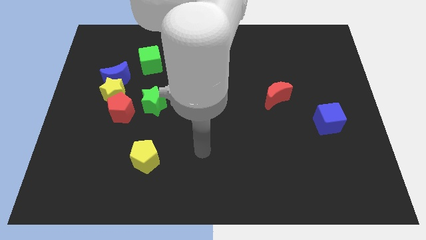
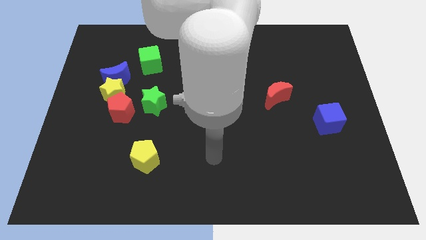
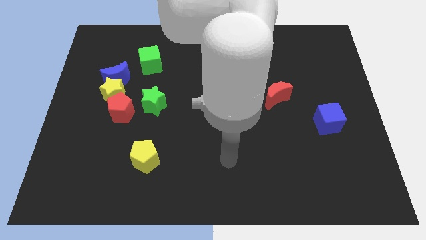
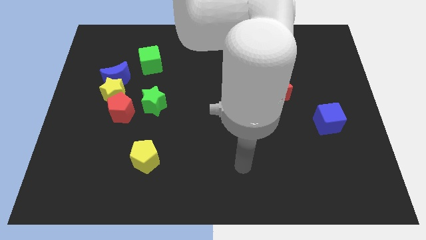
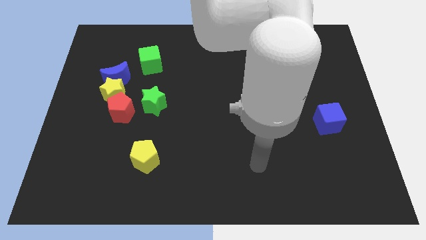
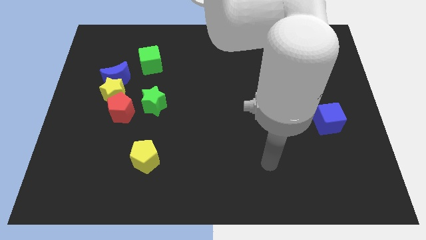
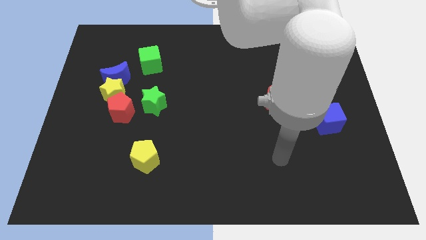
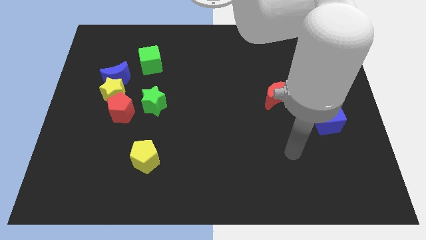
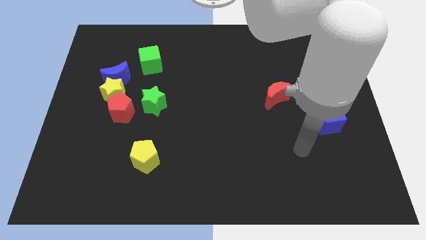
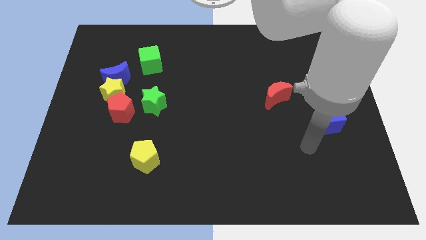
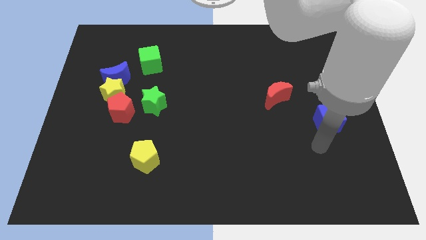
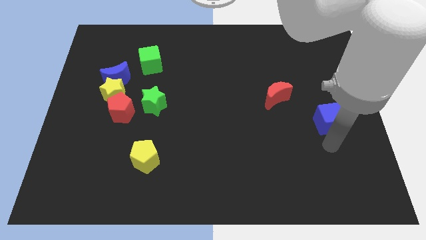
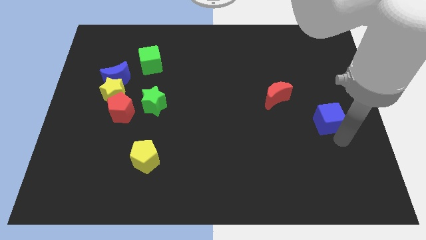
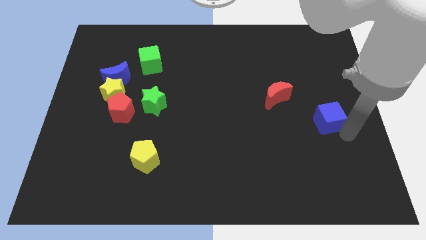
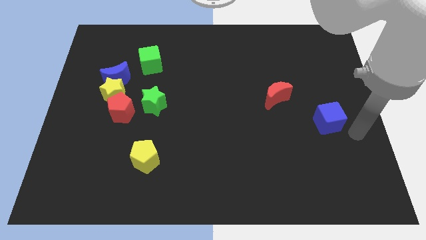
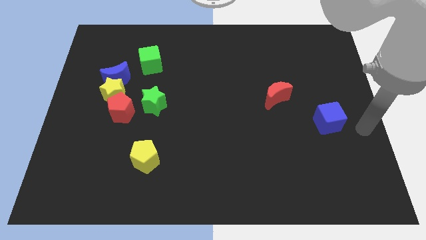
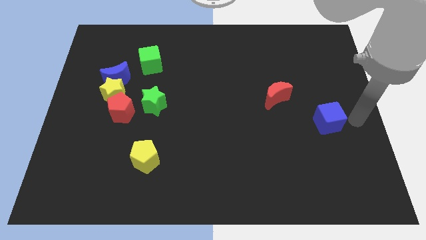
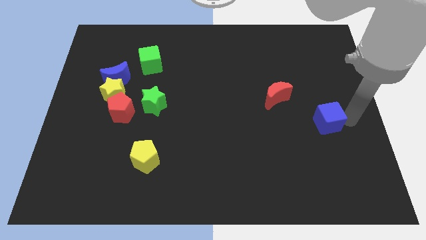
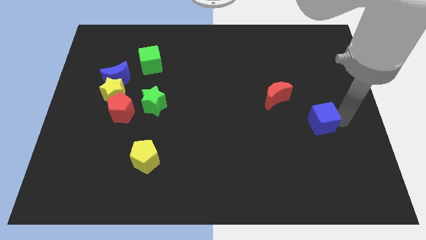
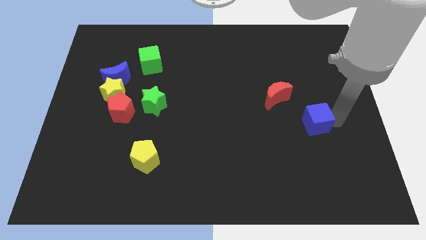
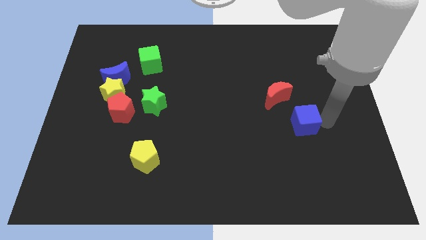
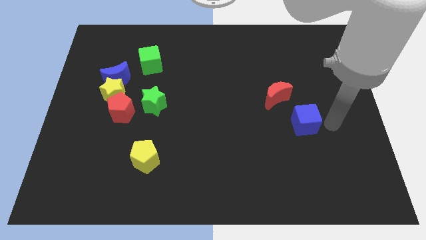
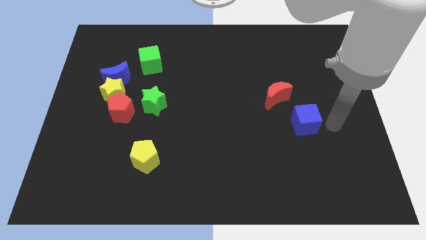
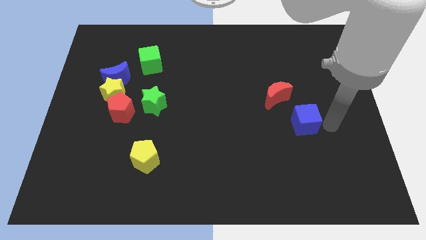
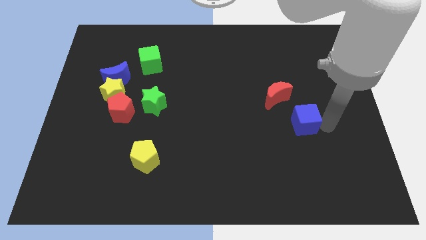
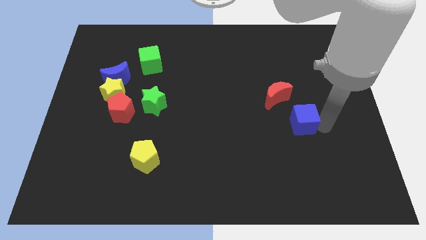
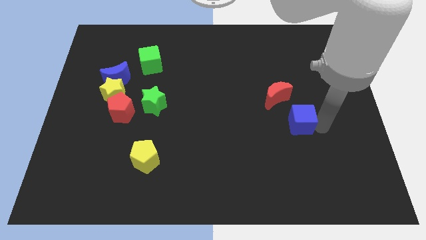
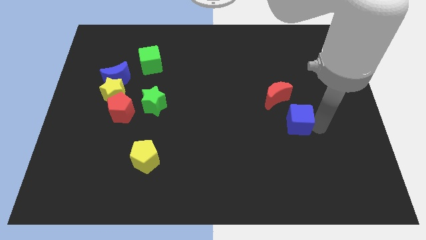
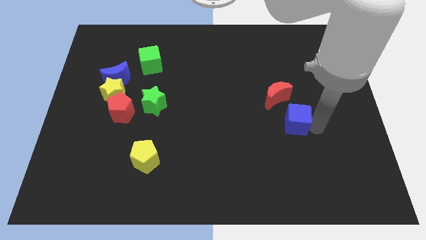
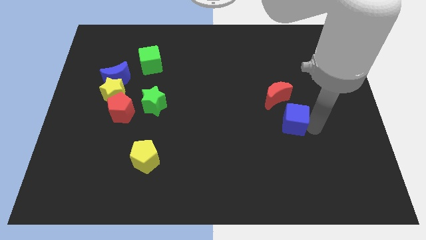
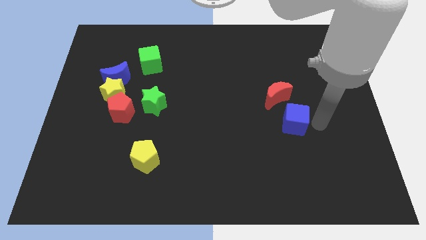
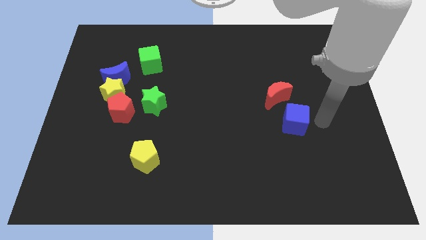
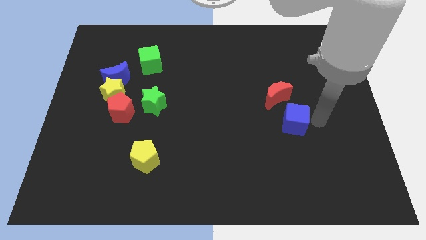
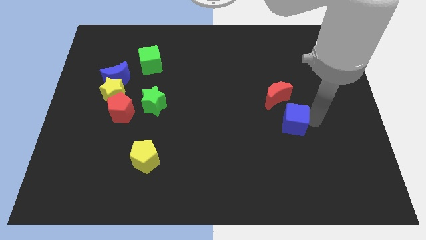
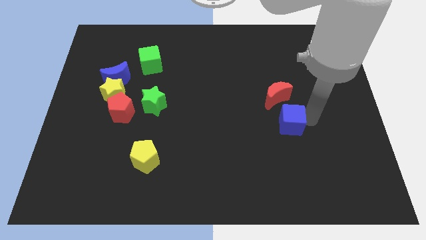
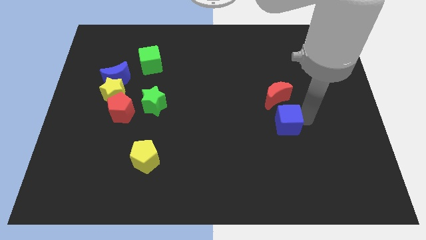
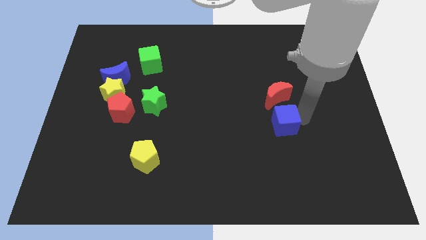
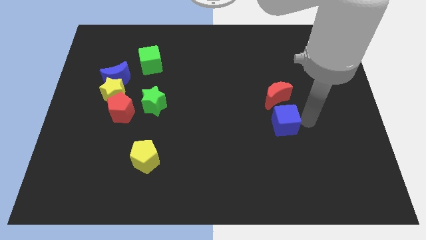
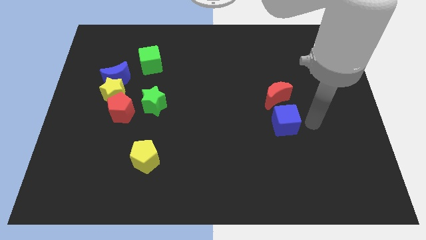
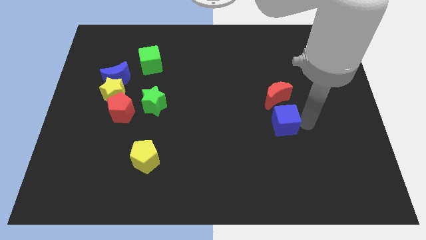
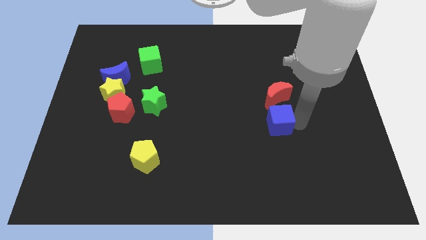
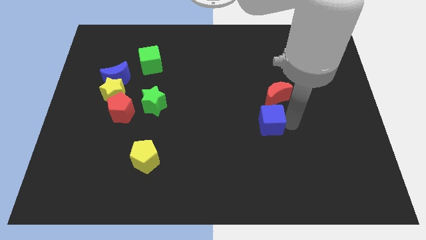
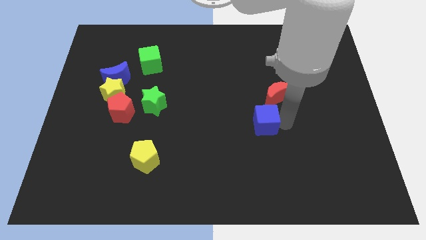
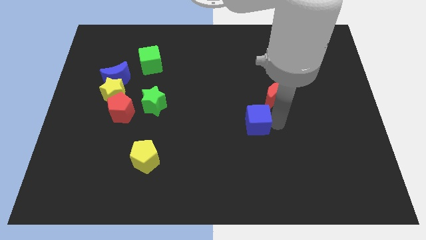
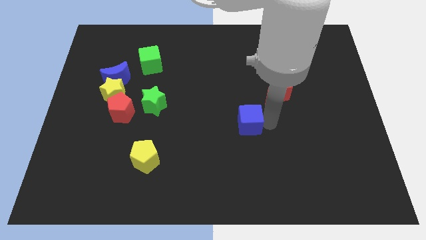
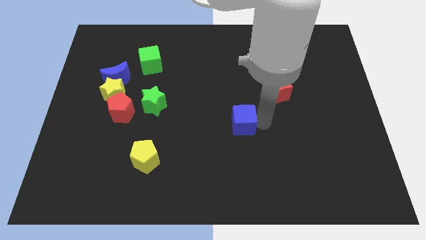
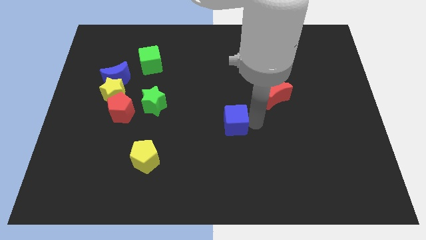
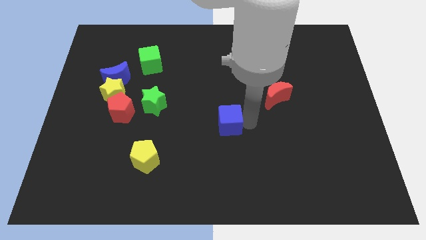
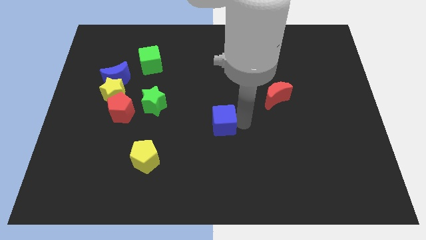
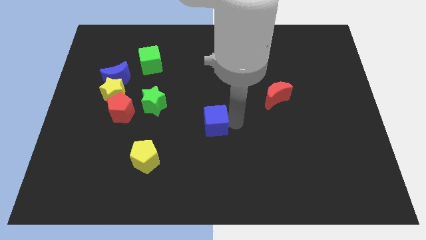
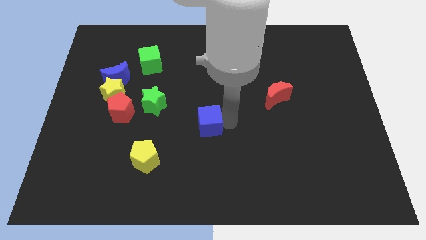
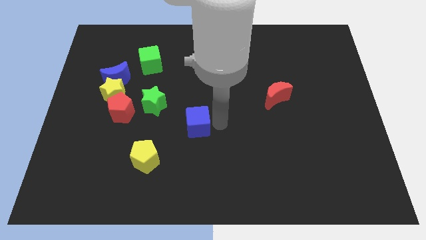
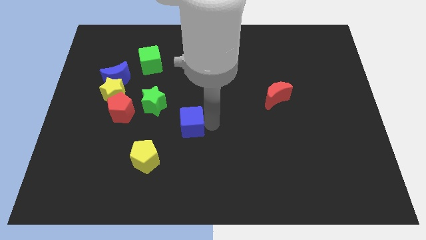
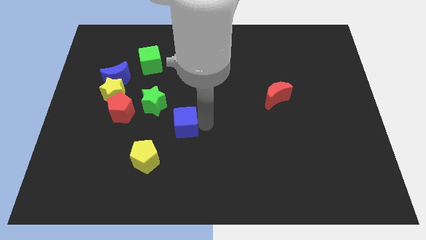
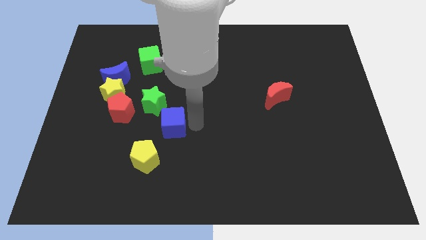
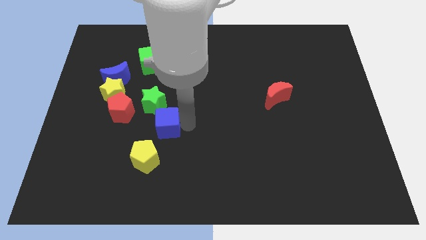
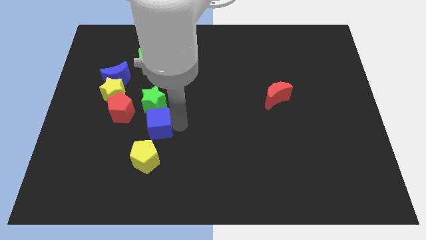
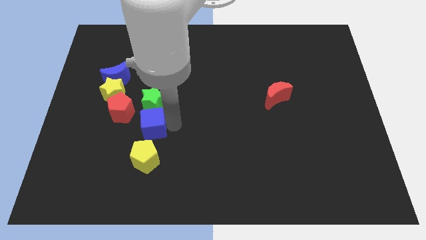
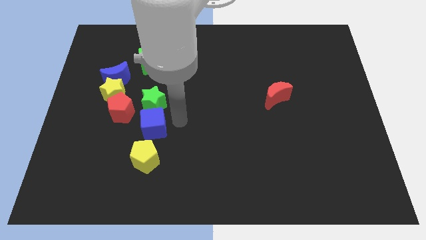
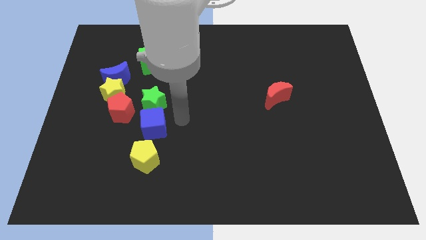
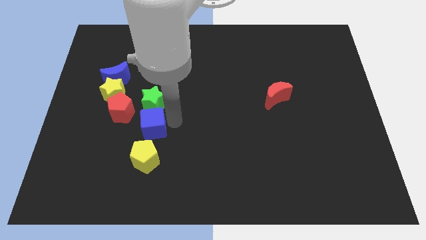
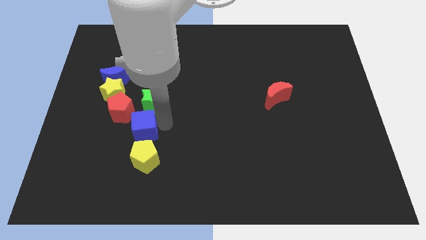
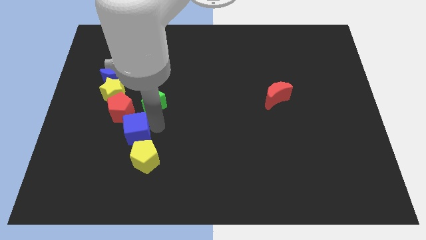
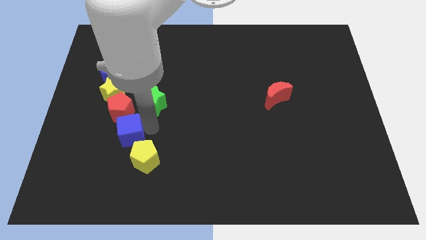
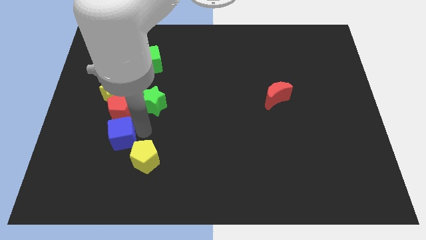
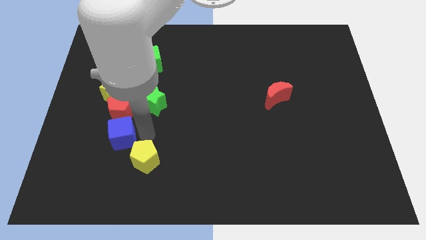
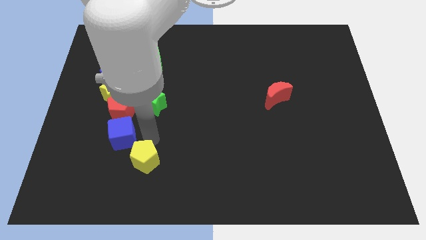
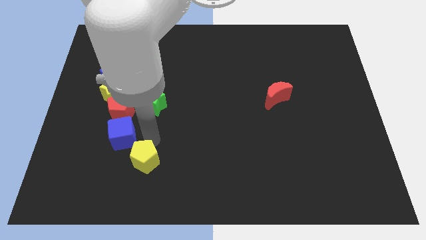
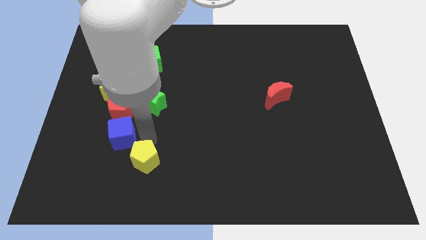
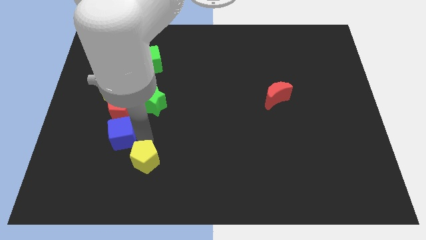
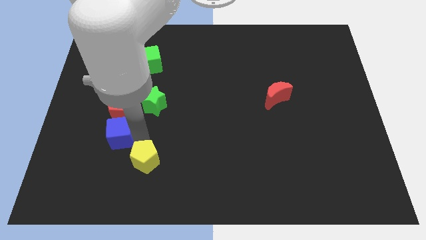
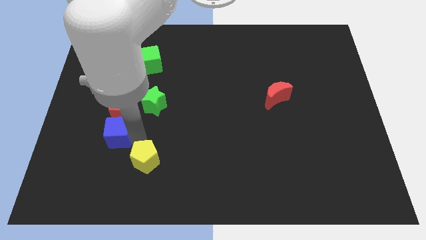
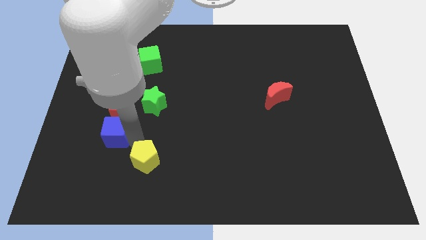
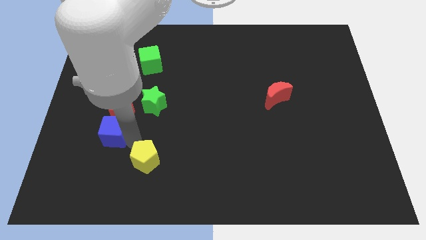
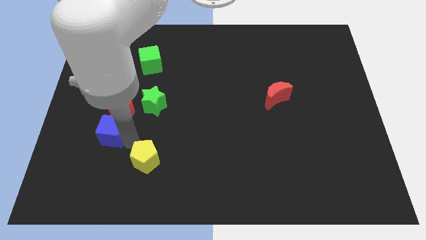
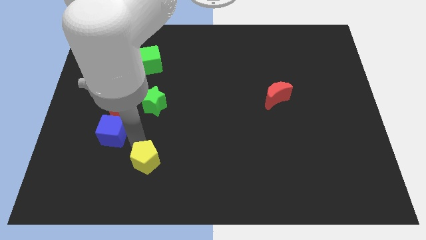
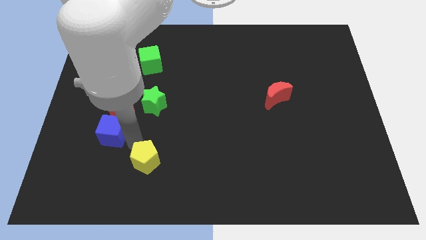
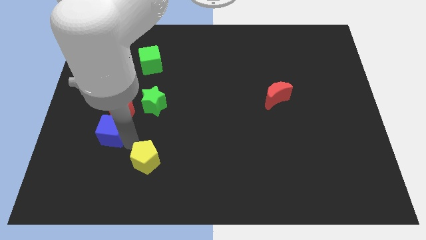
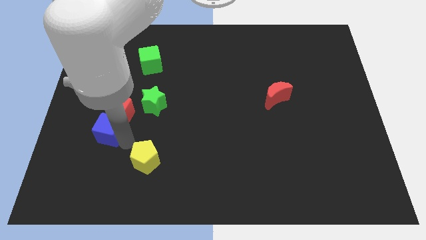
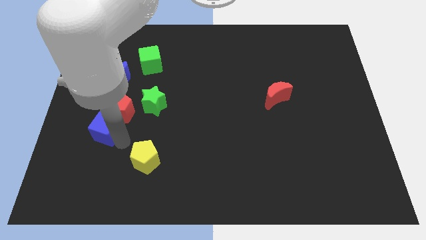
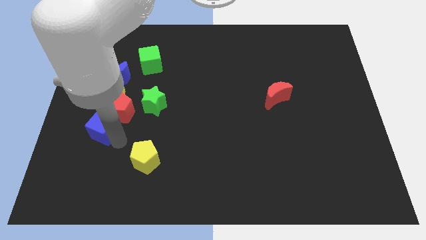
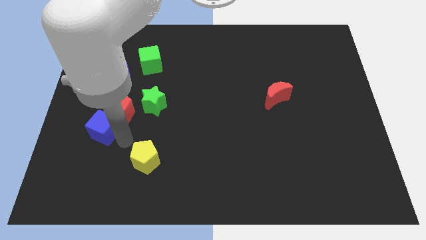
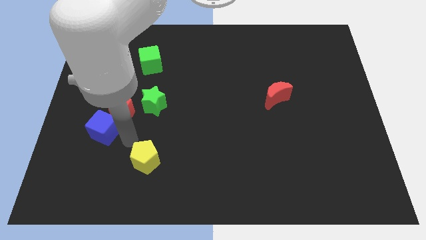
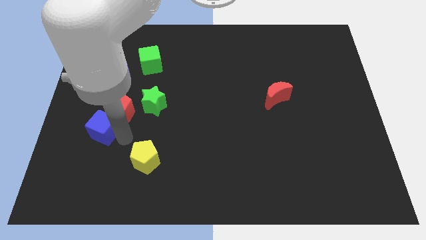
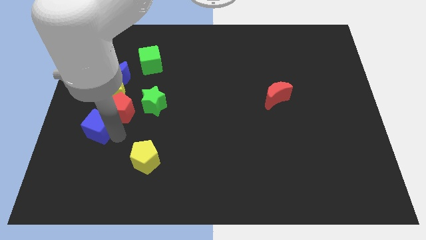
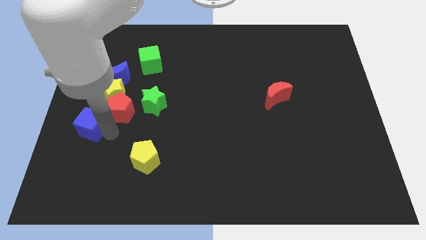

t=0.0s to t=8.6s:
push the blue cube to the center left
